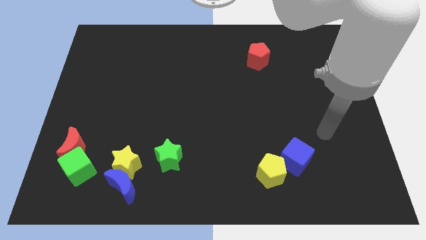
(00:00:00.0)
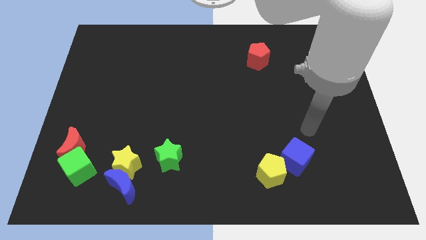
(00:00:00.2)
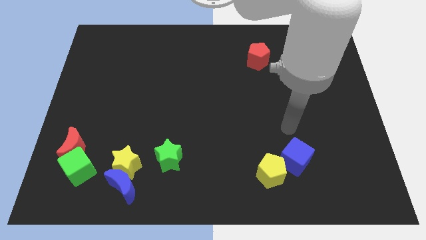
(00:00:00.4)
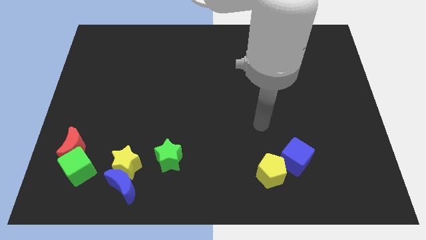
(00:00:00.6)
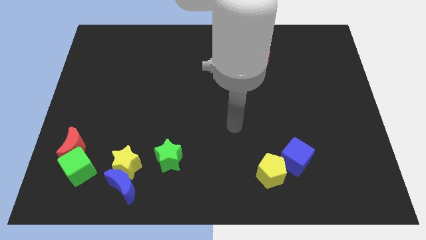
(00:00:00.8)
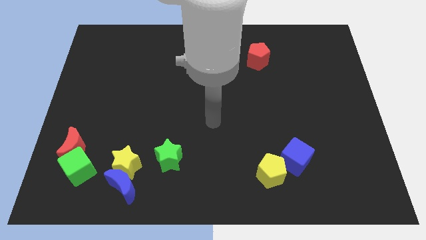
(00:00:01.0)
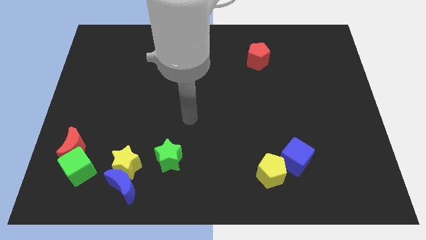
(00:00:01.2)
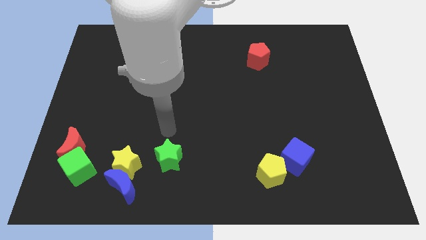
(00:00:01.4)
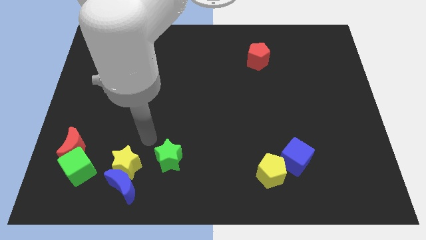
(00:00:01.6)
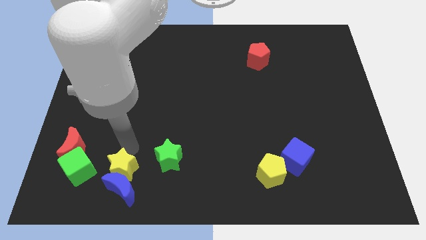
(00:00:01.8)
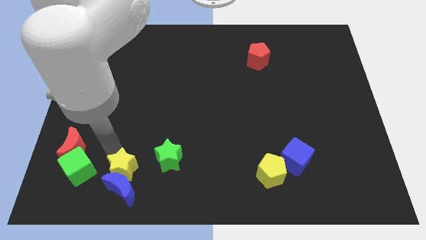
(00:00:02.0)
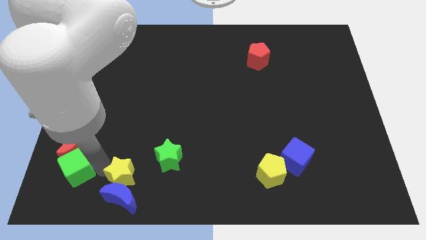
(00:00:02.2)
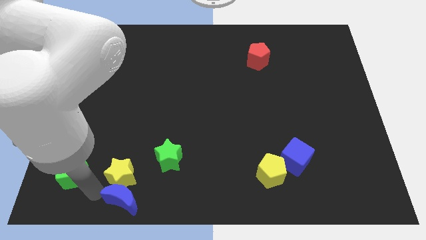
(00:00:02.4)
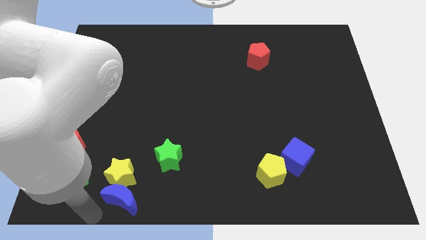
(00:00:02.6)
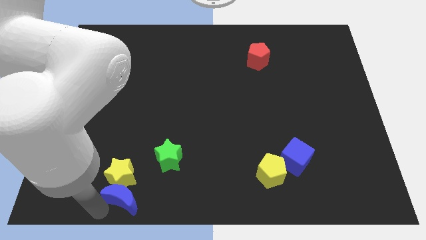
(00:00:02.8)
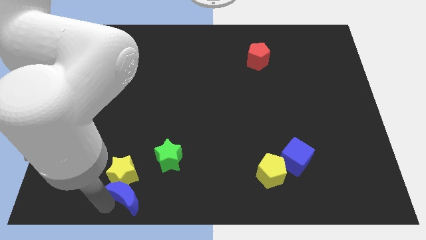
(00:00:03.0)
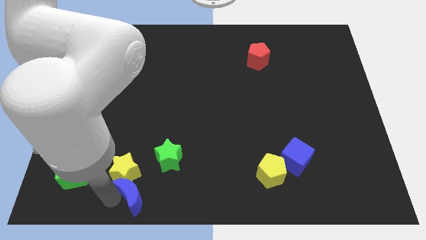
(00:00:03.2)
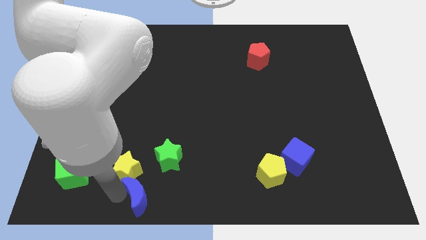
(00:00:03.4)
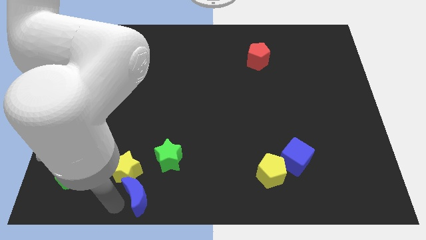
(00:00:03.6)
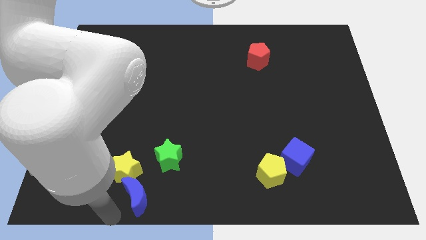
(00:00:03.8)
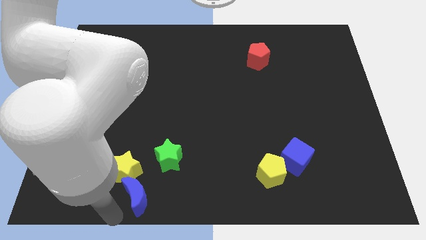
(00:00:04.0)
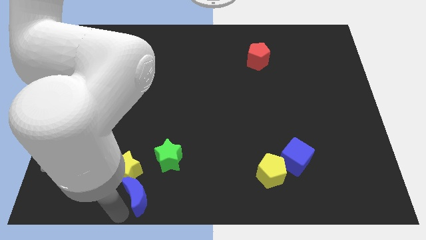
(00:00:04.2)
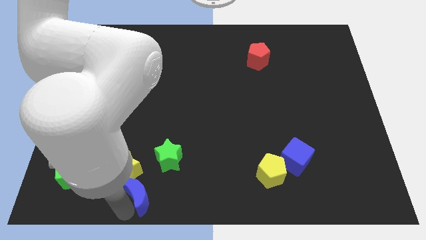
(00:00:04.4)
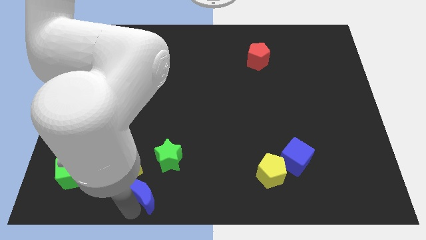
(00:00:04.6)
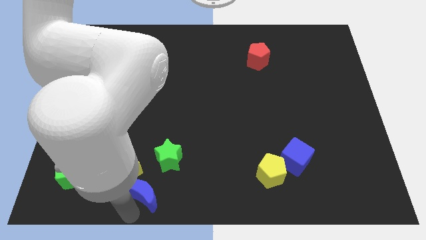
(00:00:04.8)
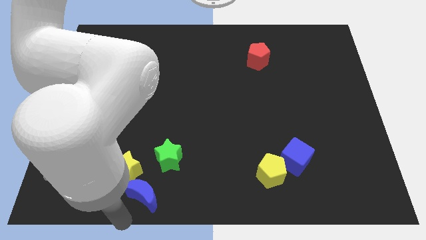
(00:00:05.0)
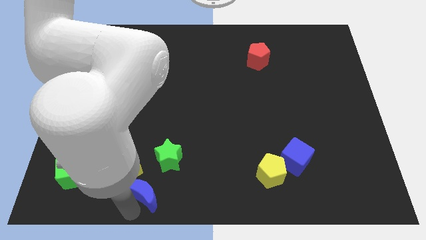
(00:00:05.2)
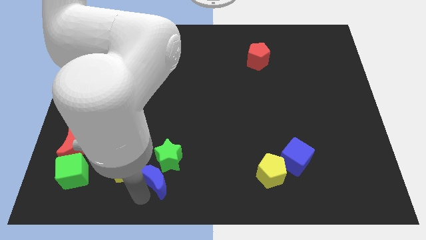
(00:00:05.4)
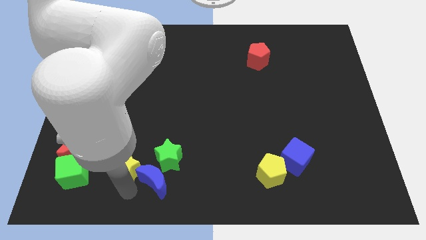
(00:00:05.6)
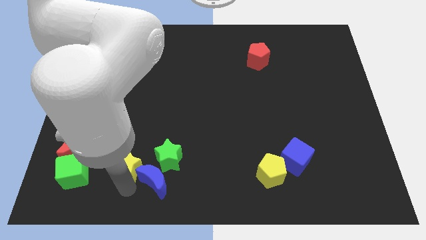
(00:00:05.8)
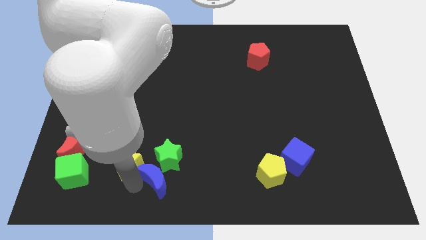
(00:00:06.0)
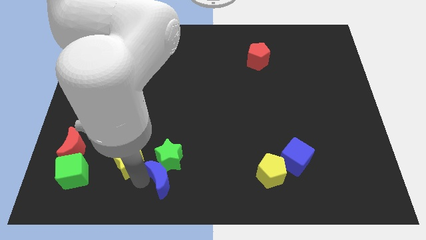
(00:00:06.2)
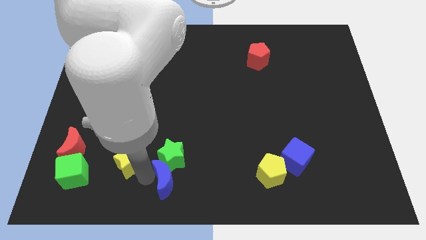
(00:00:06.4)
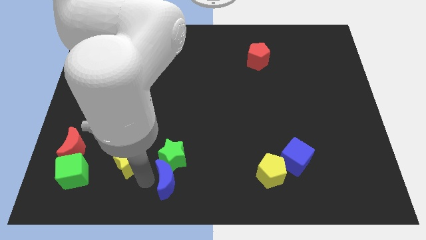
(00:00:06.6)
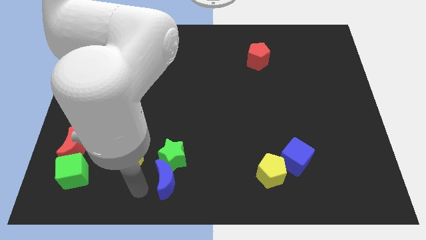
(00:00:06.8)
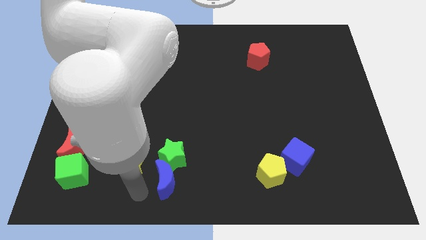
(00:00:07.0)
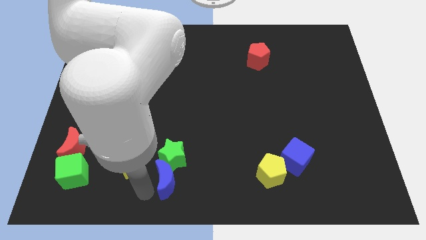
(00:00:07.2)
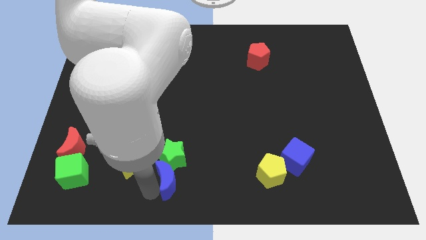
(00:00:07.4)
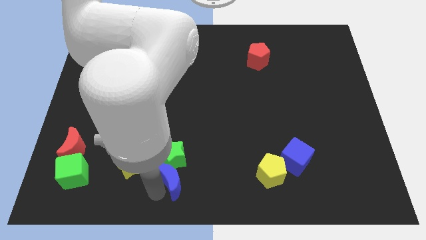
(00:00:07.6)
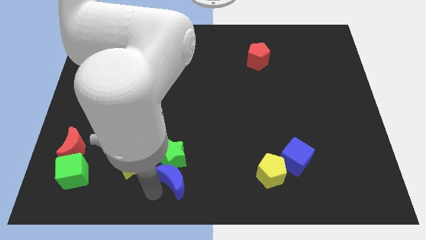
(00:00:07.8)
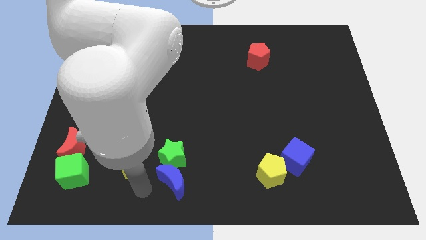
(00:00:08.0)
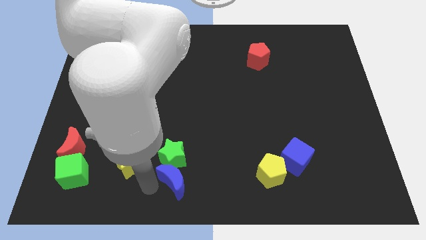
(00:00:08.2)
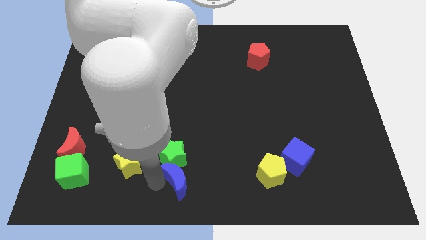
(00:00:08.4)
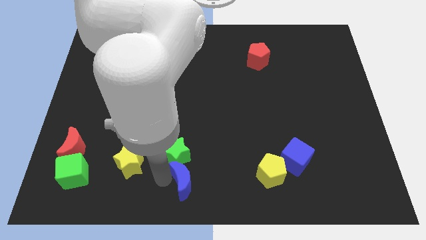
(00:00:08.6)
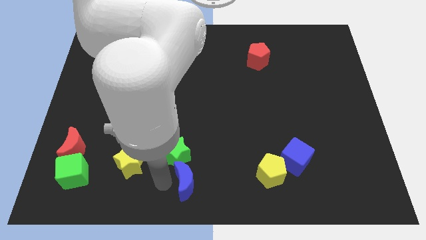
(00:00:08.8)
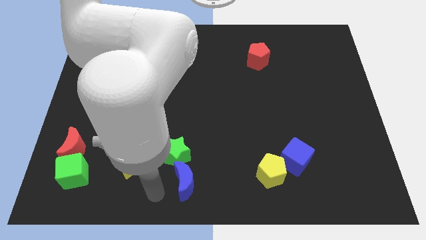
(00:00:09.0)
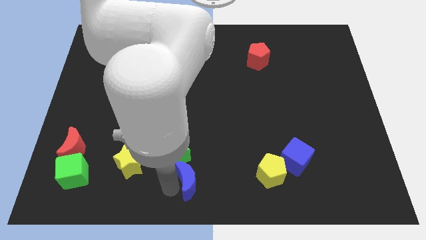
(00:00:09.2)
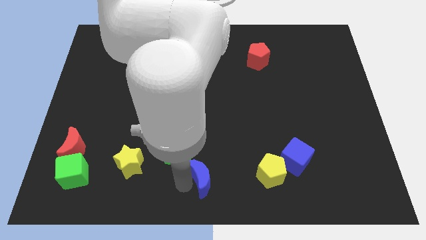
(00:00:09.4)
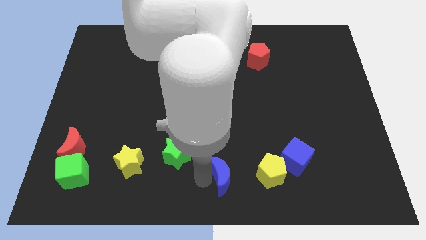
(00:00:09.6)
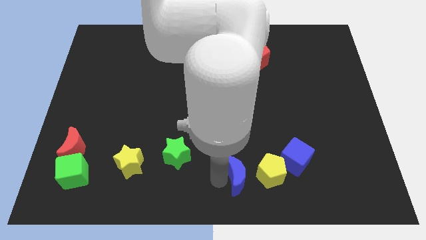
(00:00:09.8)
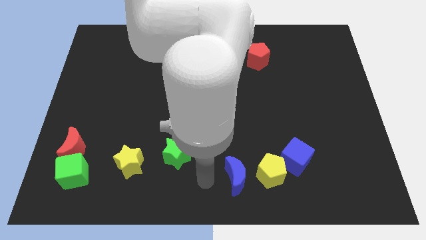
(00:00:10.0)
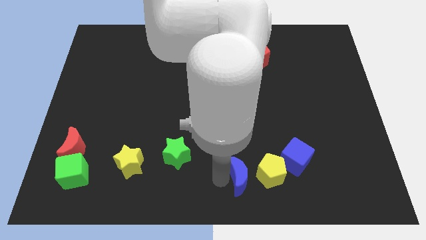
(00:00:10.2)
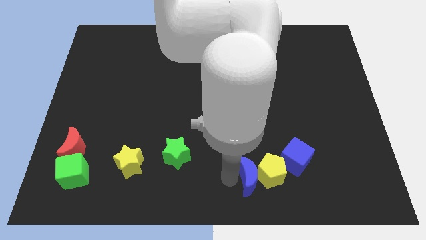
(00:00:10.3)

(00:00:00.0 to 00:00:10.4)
push the blue moon to the yellow pentagon

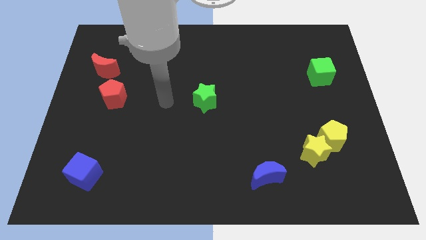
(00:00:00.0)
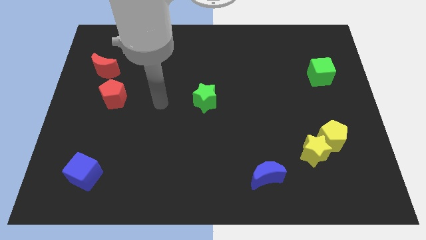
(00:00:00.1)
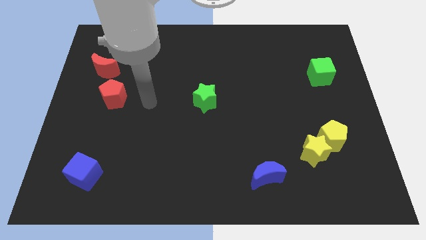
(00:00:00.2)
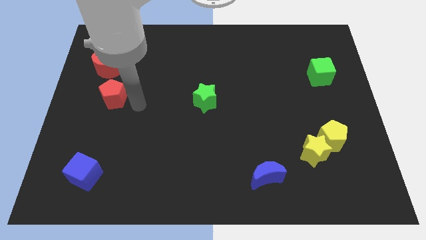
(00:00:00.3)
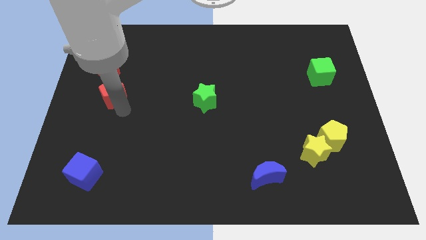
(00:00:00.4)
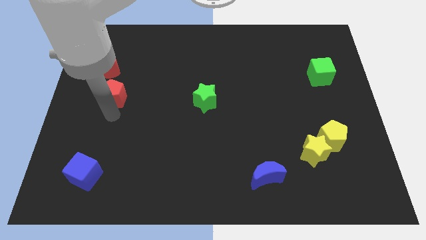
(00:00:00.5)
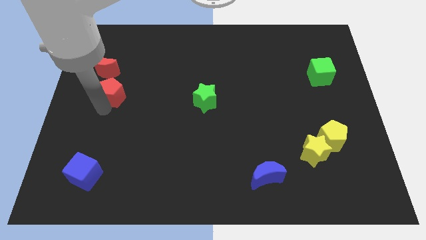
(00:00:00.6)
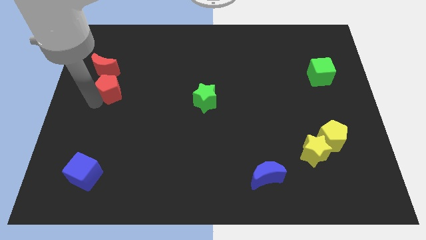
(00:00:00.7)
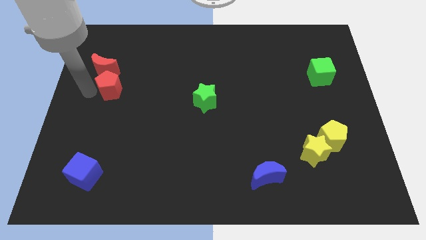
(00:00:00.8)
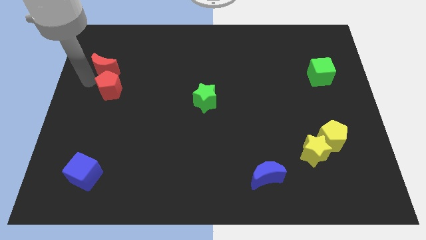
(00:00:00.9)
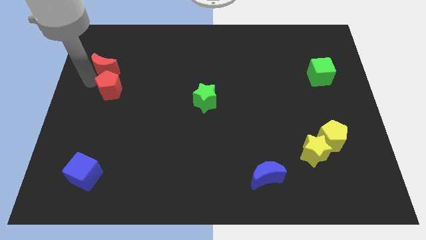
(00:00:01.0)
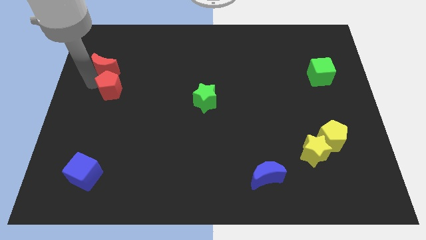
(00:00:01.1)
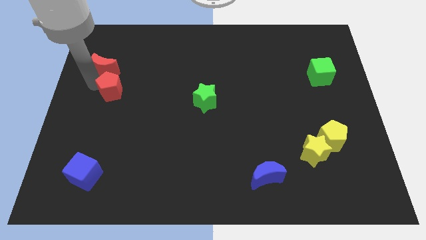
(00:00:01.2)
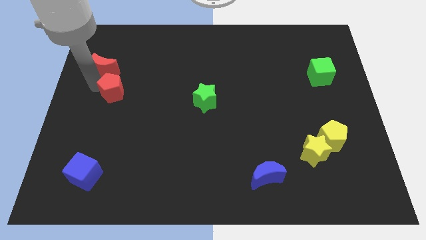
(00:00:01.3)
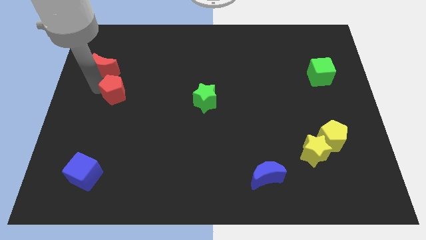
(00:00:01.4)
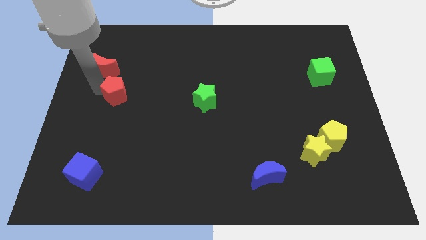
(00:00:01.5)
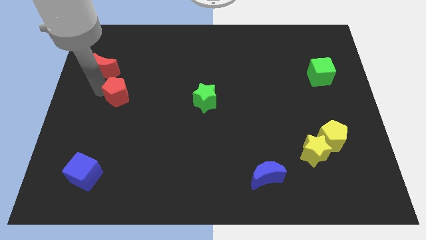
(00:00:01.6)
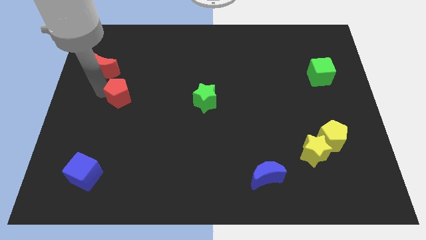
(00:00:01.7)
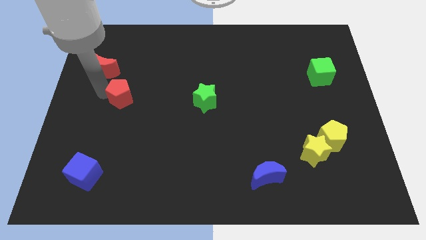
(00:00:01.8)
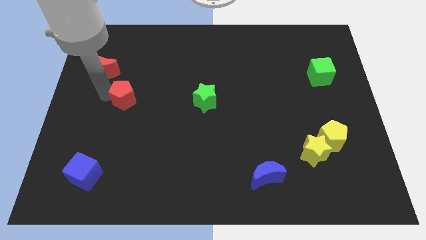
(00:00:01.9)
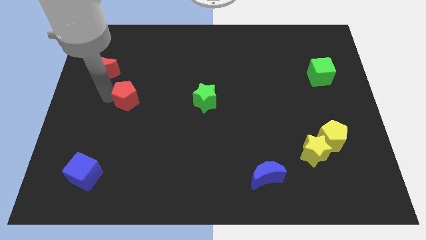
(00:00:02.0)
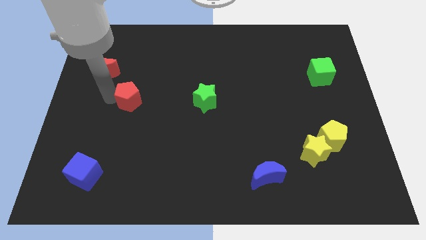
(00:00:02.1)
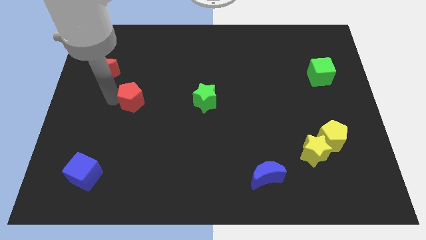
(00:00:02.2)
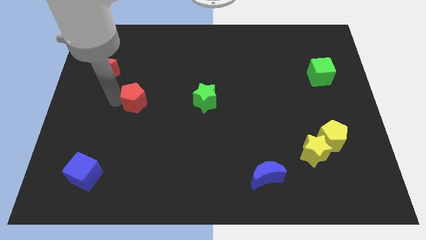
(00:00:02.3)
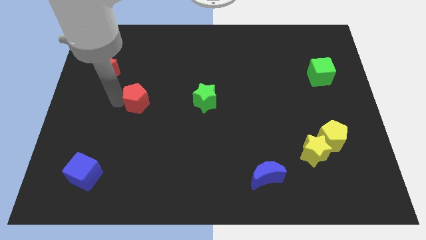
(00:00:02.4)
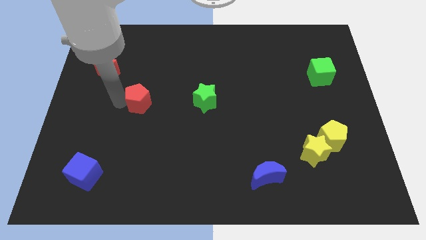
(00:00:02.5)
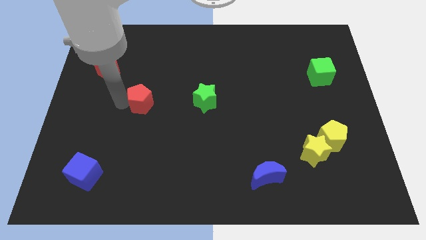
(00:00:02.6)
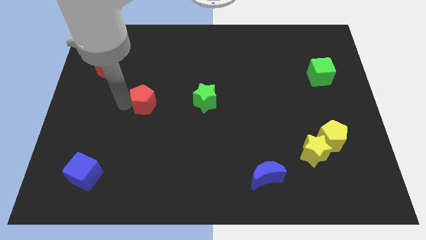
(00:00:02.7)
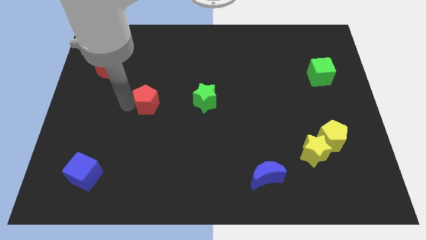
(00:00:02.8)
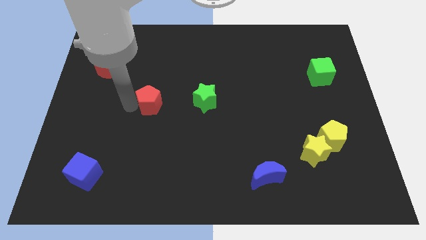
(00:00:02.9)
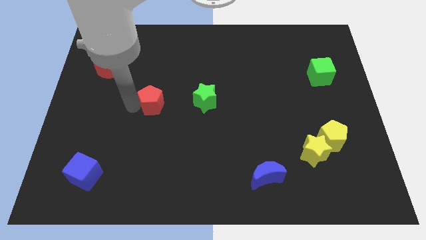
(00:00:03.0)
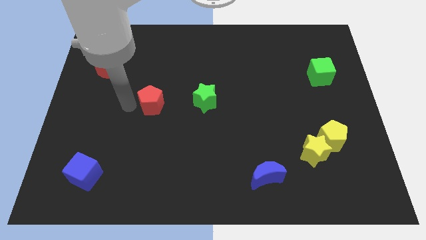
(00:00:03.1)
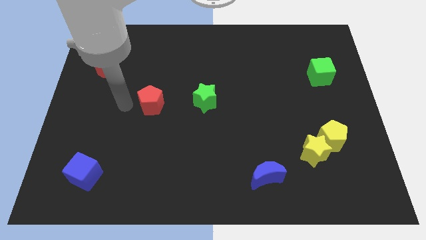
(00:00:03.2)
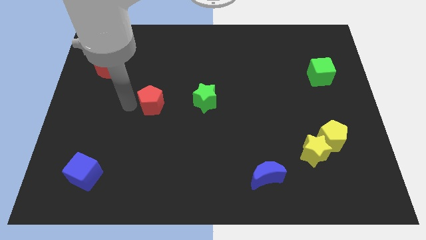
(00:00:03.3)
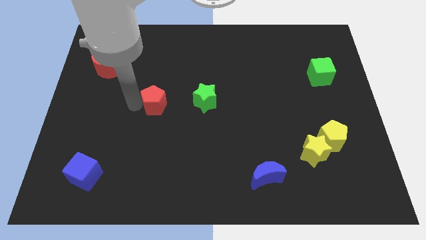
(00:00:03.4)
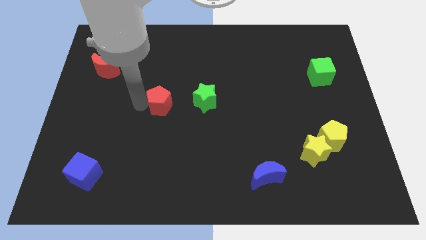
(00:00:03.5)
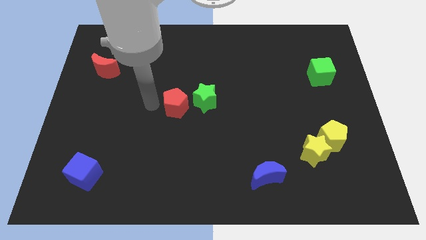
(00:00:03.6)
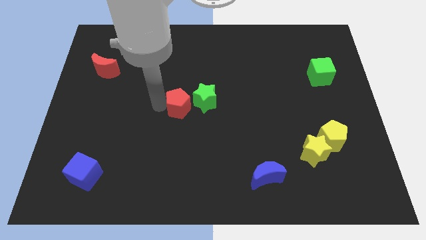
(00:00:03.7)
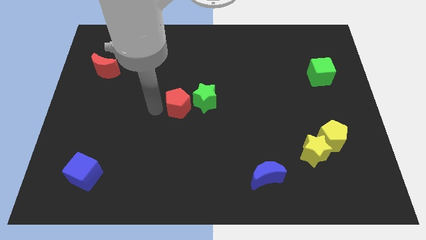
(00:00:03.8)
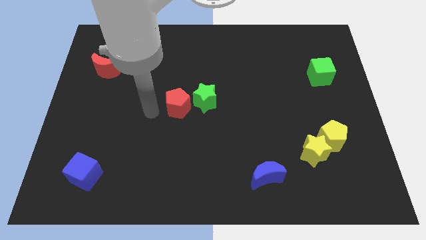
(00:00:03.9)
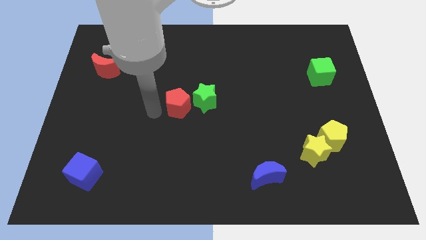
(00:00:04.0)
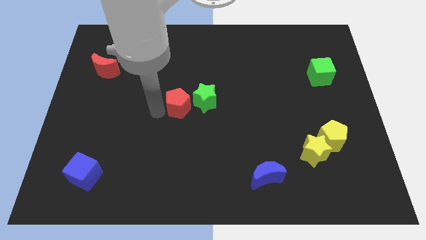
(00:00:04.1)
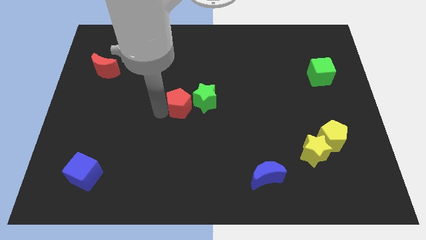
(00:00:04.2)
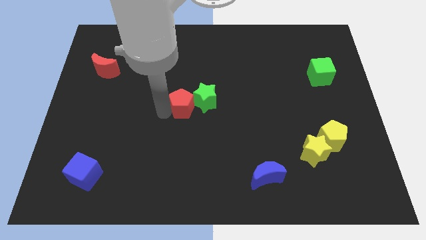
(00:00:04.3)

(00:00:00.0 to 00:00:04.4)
put the red pentagon towards the green star
